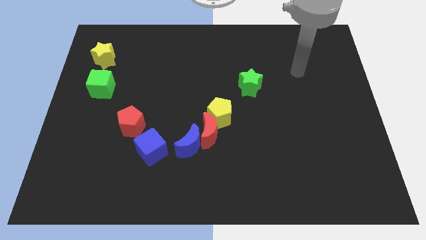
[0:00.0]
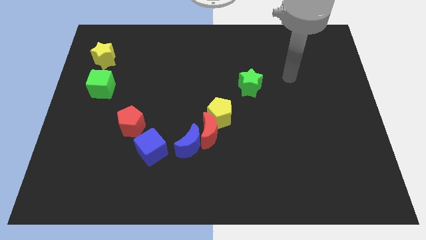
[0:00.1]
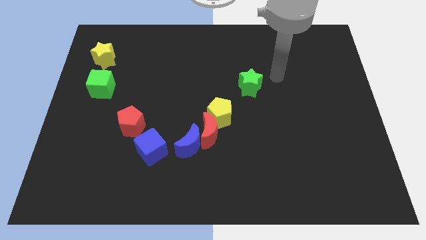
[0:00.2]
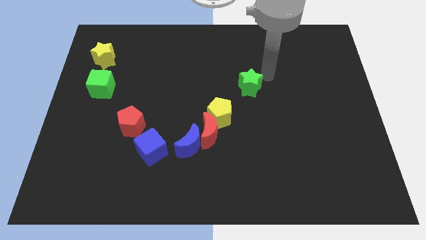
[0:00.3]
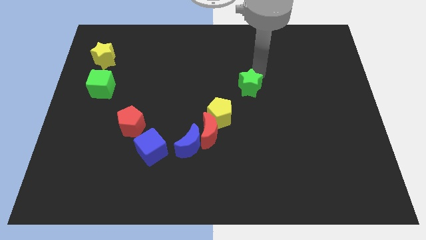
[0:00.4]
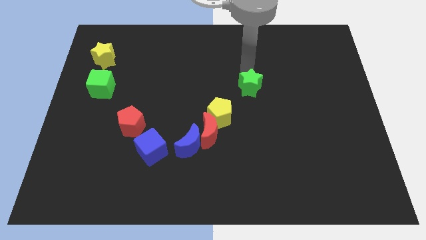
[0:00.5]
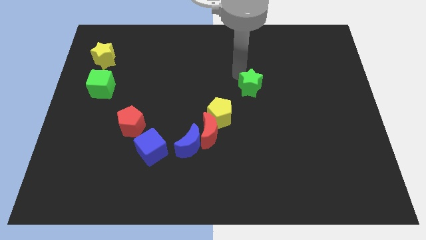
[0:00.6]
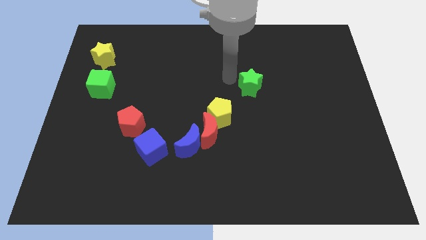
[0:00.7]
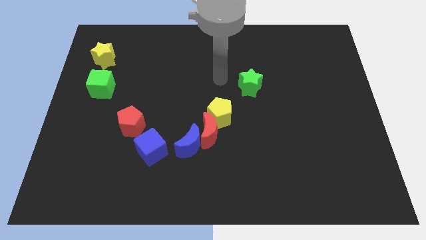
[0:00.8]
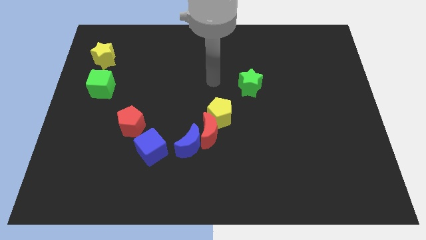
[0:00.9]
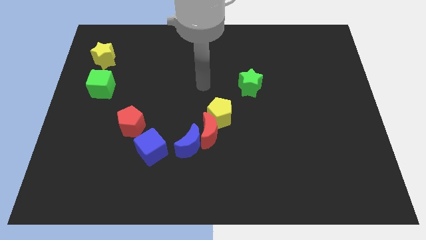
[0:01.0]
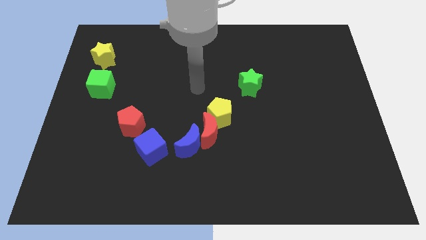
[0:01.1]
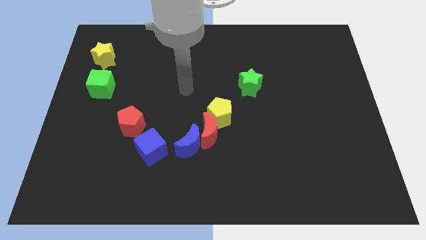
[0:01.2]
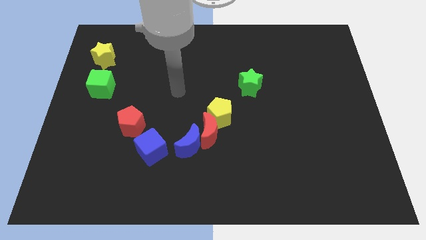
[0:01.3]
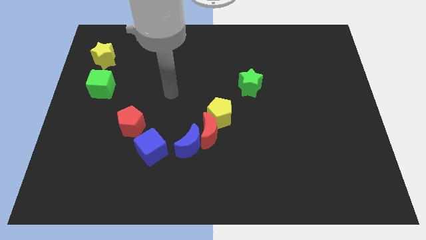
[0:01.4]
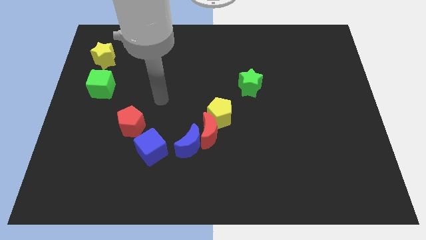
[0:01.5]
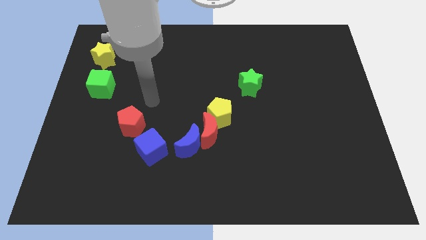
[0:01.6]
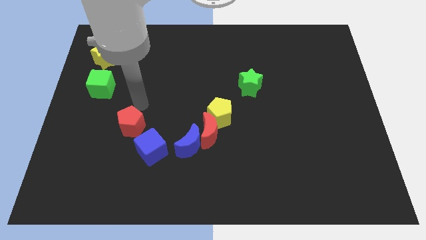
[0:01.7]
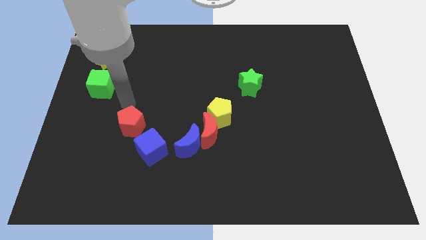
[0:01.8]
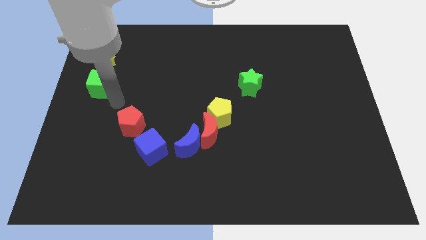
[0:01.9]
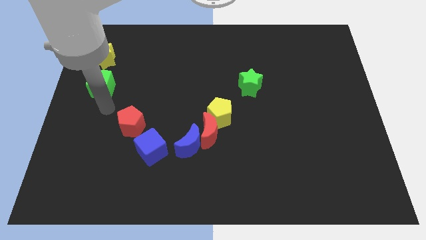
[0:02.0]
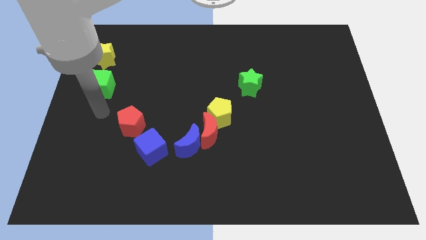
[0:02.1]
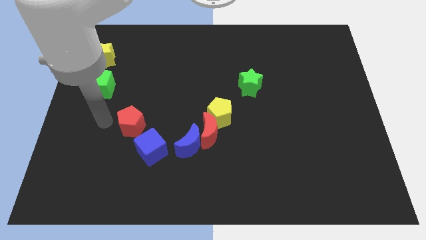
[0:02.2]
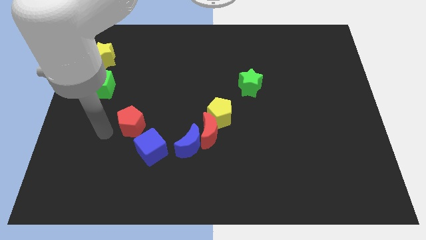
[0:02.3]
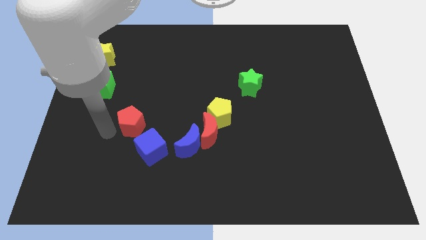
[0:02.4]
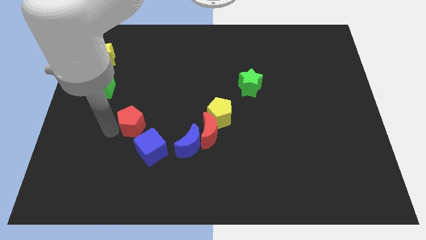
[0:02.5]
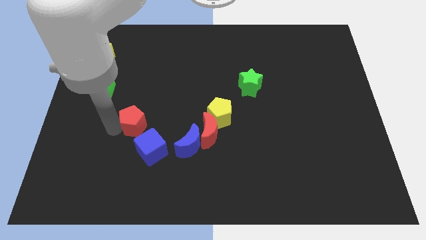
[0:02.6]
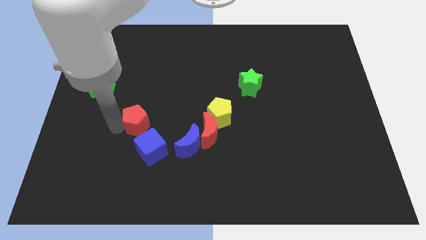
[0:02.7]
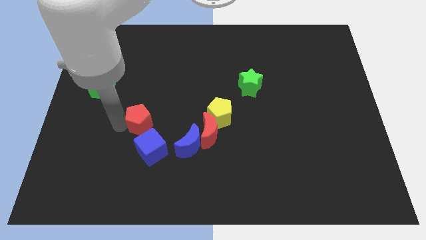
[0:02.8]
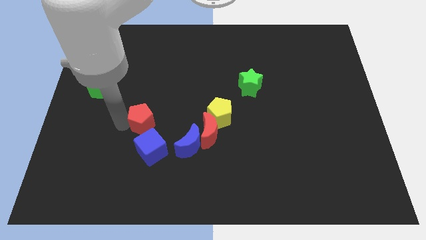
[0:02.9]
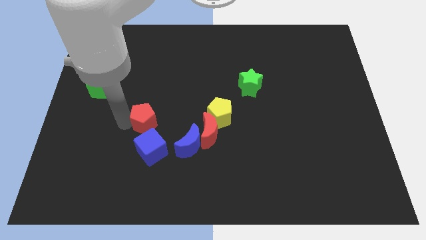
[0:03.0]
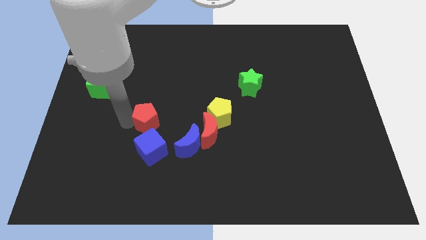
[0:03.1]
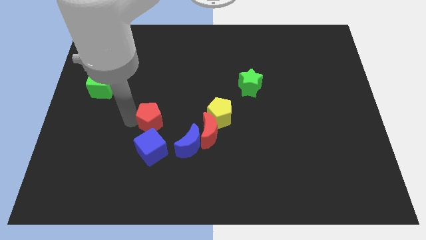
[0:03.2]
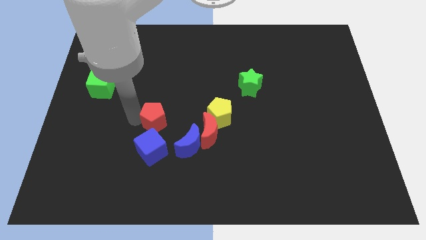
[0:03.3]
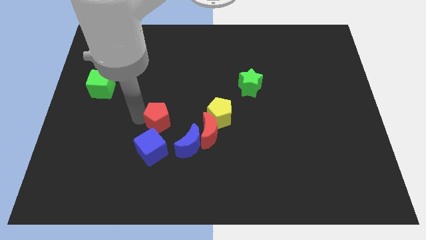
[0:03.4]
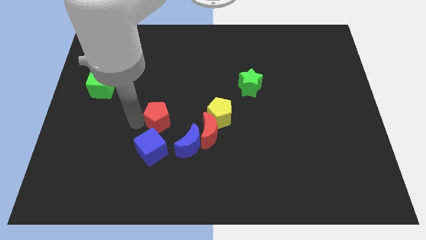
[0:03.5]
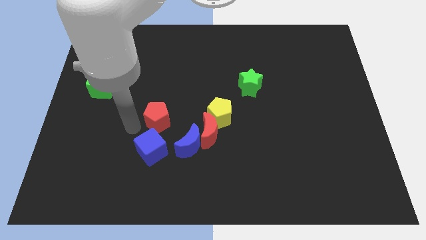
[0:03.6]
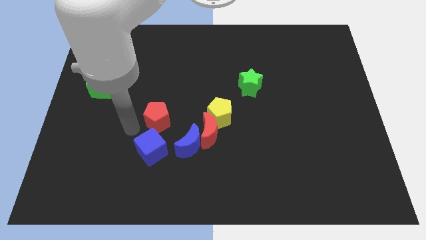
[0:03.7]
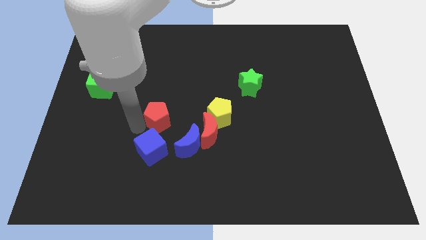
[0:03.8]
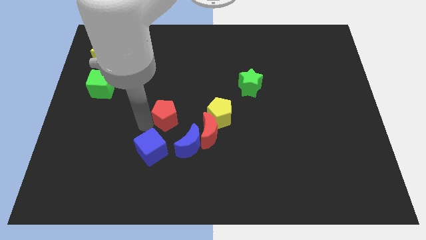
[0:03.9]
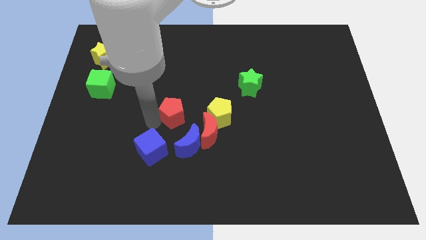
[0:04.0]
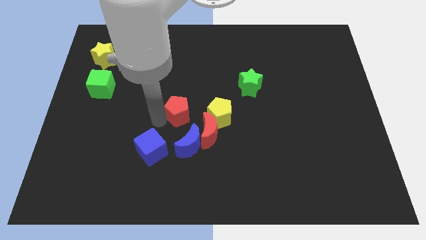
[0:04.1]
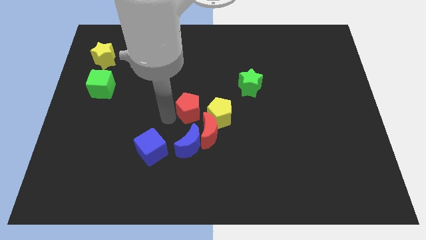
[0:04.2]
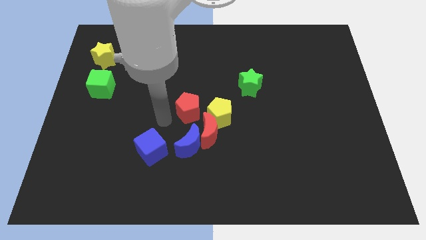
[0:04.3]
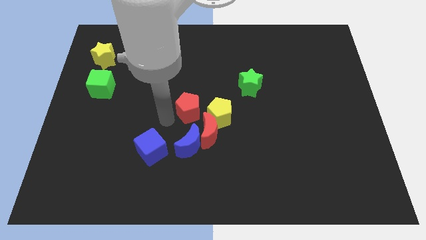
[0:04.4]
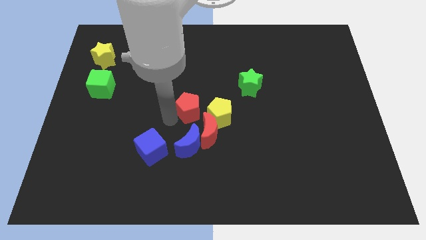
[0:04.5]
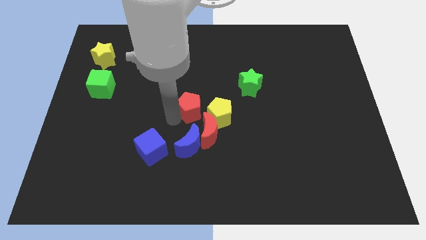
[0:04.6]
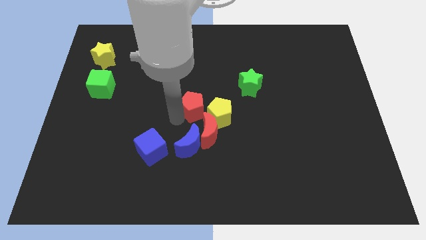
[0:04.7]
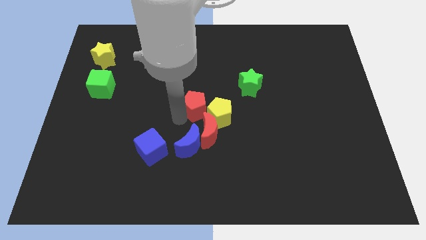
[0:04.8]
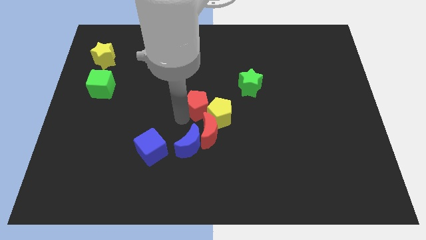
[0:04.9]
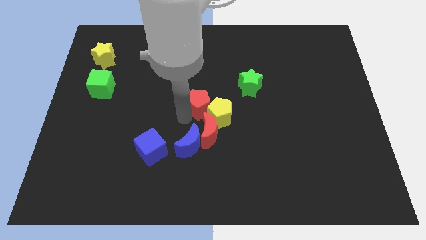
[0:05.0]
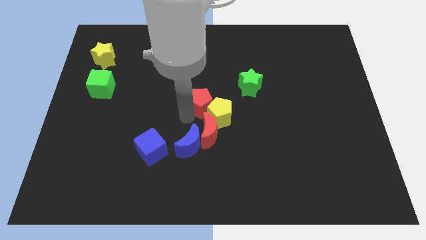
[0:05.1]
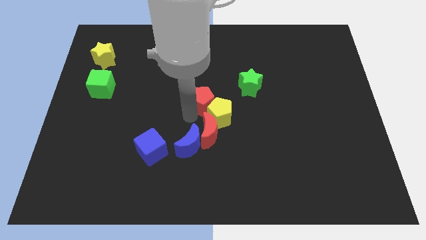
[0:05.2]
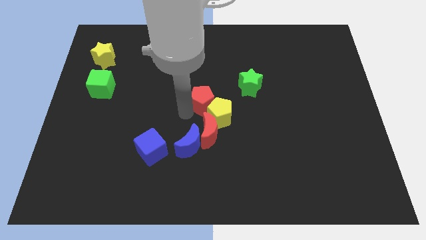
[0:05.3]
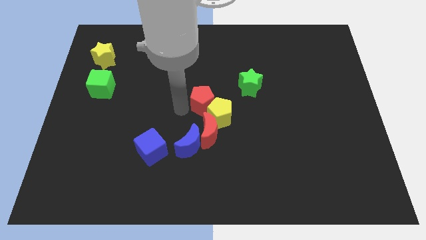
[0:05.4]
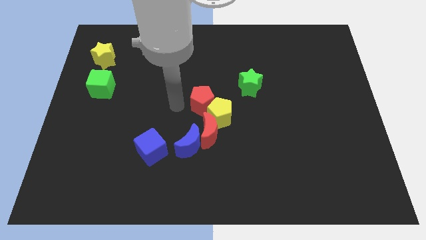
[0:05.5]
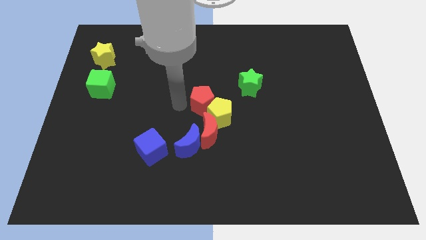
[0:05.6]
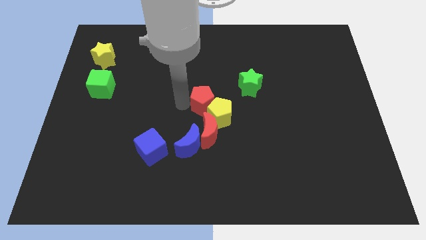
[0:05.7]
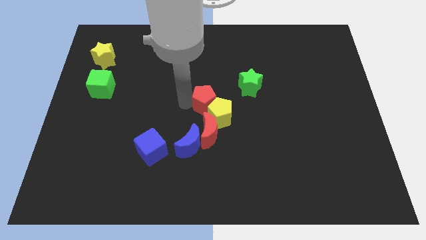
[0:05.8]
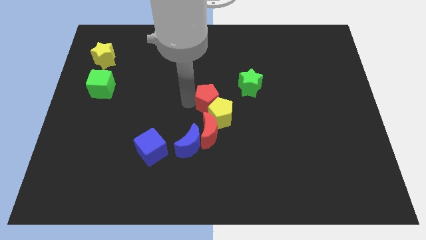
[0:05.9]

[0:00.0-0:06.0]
slide the red pentagon to the bottom left of the green star

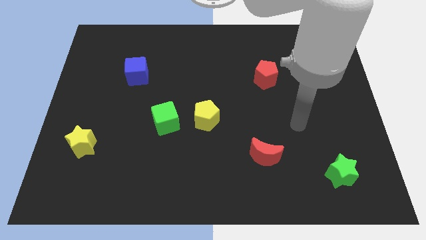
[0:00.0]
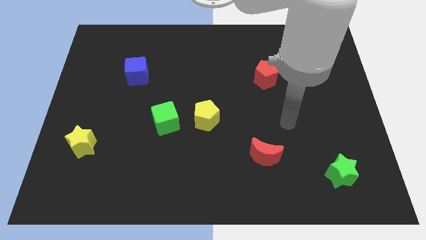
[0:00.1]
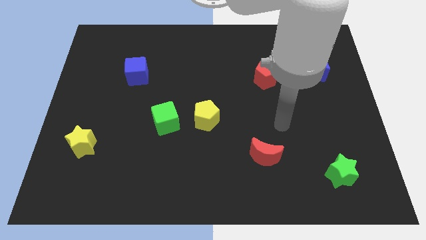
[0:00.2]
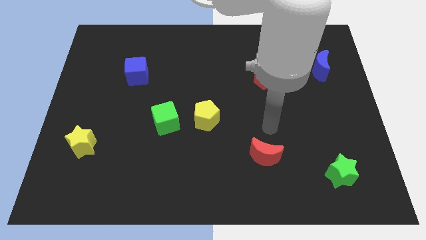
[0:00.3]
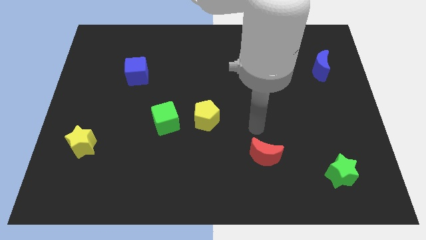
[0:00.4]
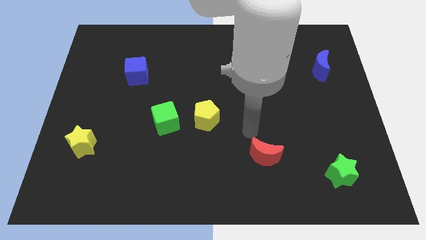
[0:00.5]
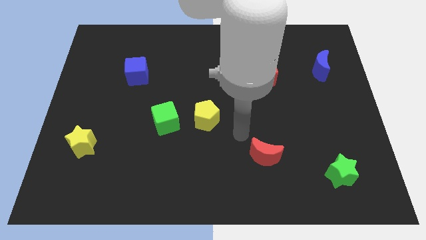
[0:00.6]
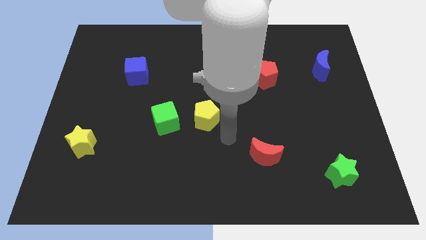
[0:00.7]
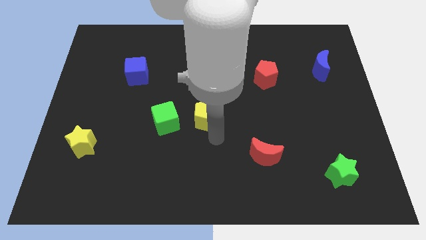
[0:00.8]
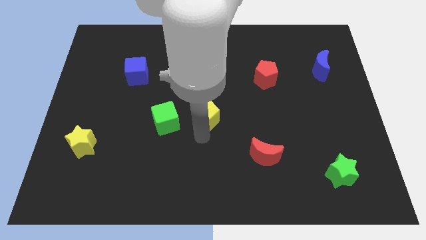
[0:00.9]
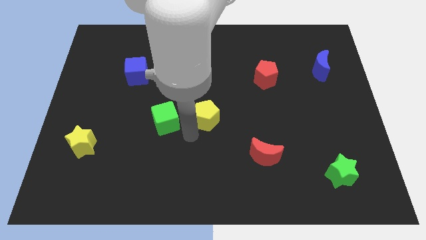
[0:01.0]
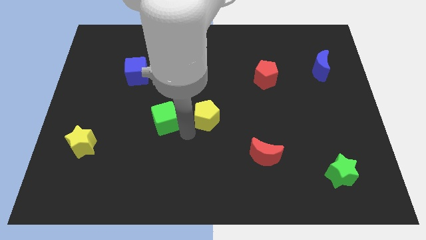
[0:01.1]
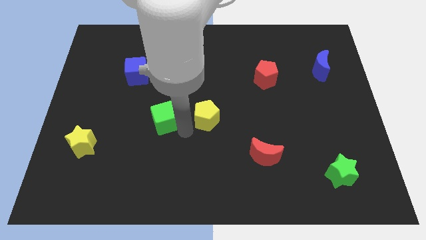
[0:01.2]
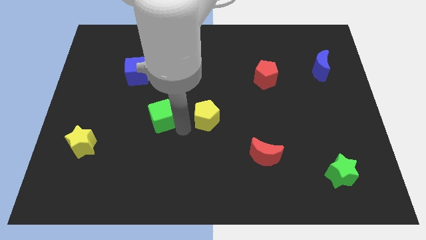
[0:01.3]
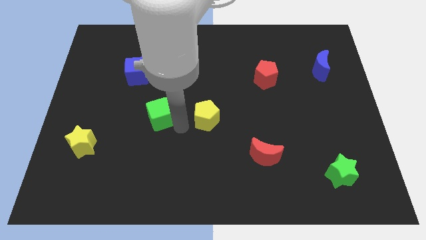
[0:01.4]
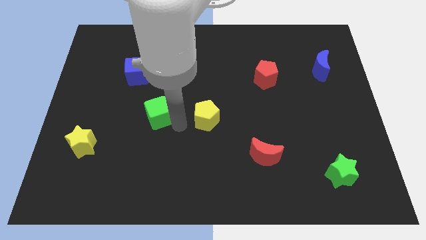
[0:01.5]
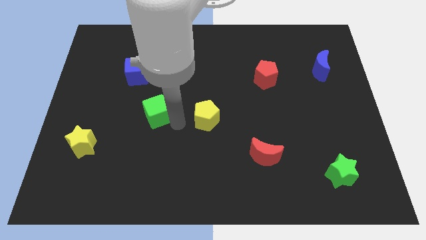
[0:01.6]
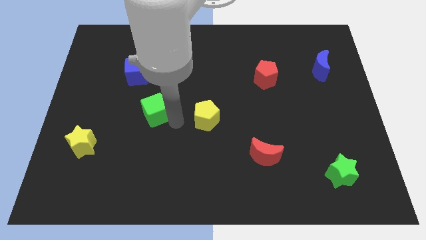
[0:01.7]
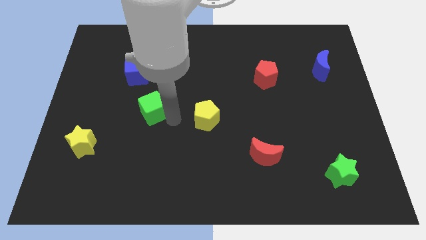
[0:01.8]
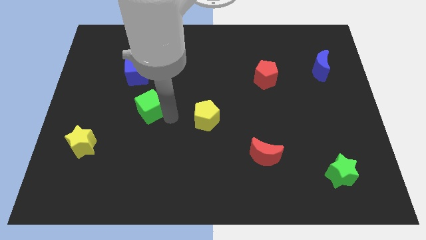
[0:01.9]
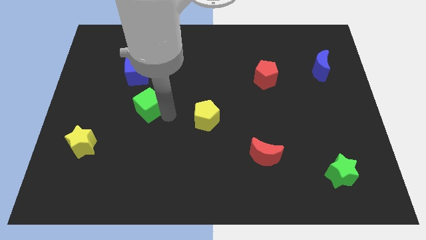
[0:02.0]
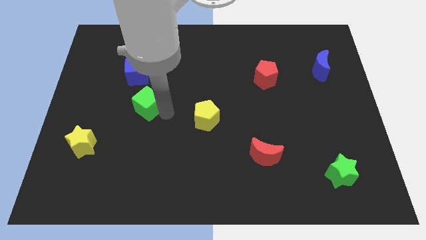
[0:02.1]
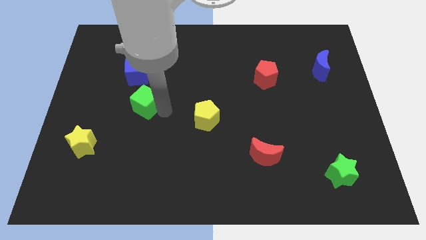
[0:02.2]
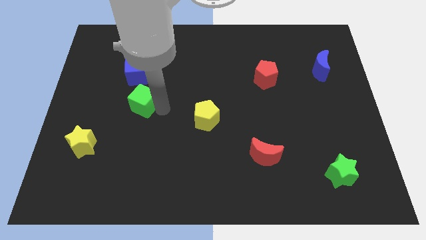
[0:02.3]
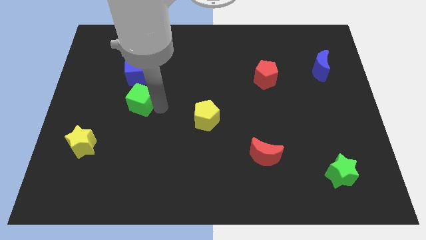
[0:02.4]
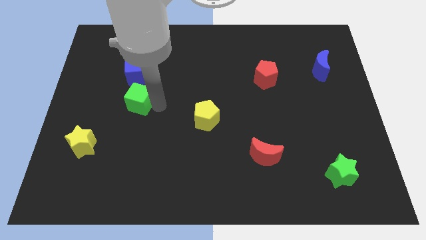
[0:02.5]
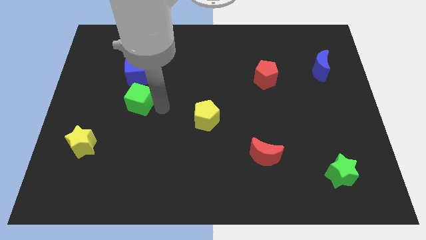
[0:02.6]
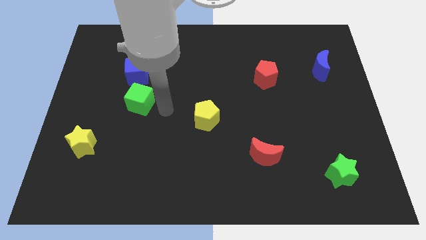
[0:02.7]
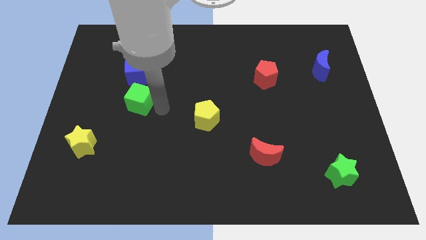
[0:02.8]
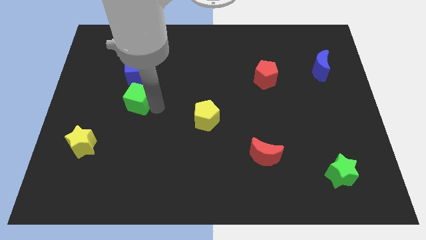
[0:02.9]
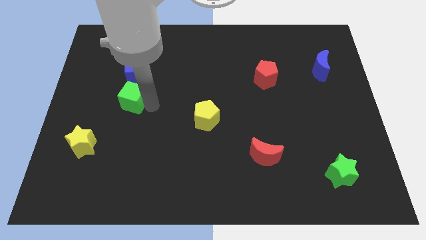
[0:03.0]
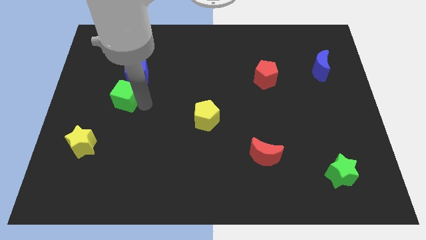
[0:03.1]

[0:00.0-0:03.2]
push the green cube to the bottom left of the blue cube
